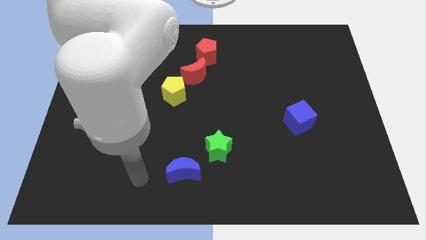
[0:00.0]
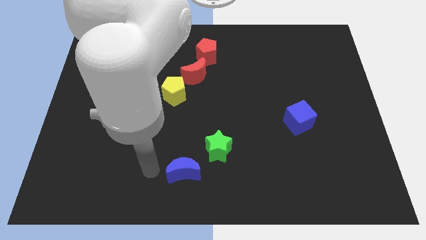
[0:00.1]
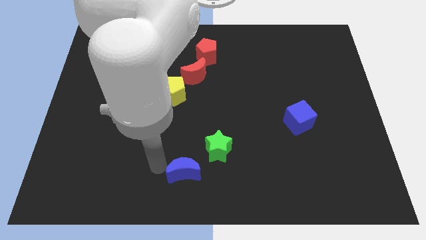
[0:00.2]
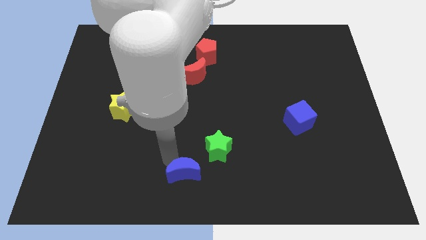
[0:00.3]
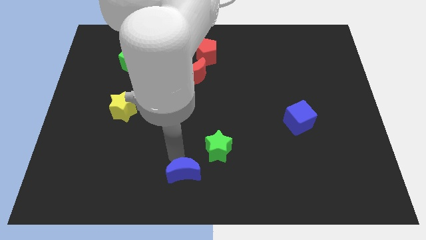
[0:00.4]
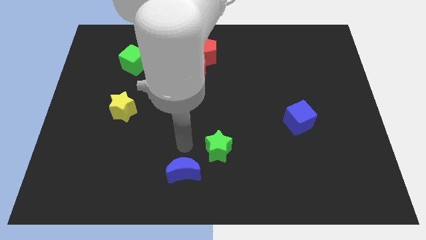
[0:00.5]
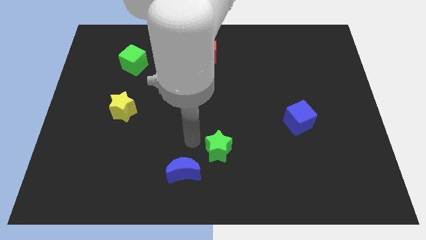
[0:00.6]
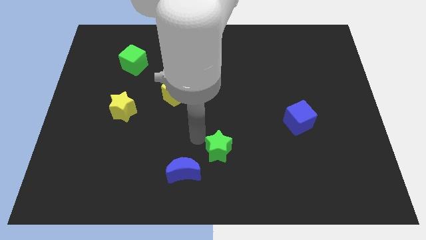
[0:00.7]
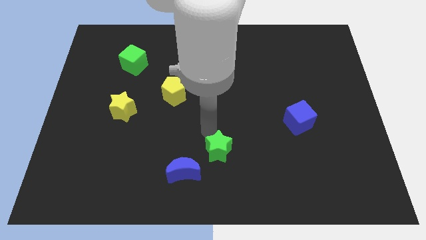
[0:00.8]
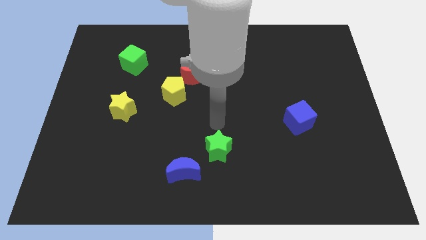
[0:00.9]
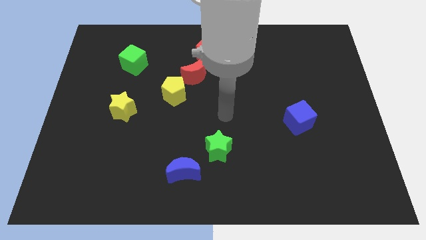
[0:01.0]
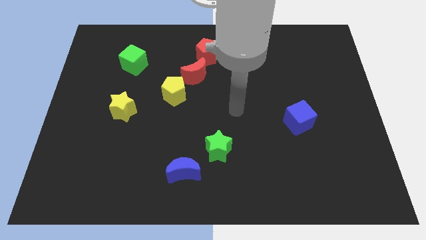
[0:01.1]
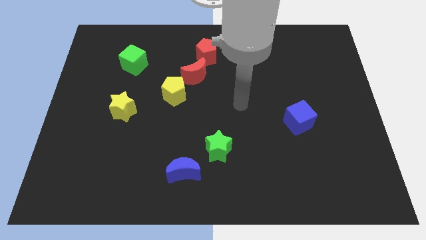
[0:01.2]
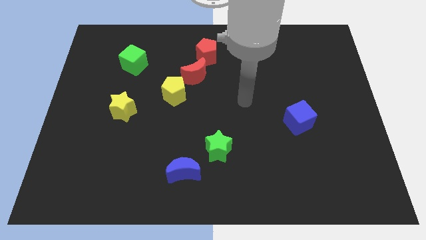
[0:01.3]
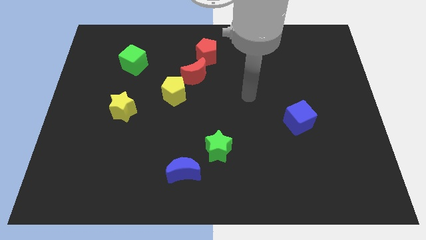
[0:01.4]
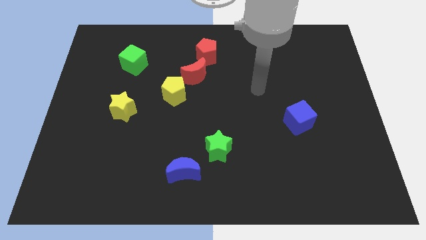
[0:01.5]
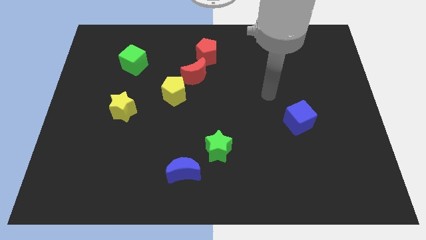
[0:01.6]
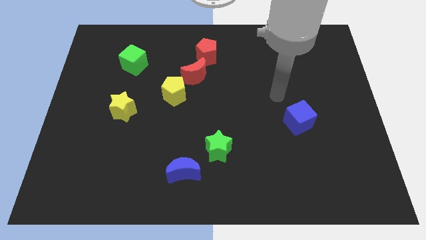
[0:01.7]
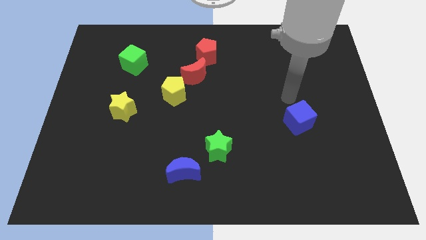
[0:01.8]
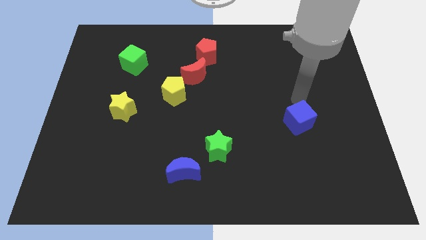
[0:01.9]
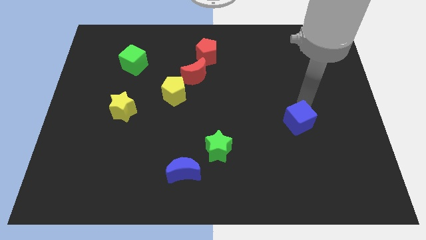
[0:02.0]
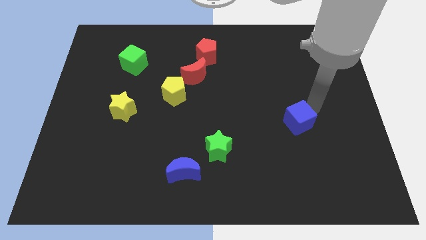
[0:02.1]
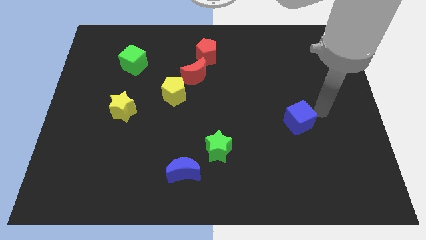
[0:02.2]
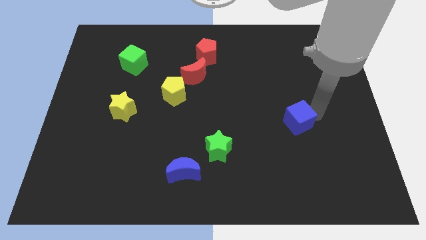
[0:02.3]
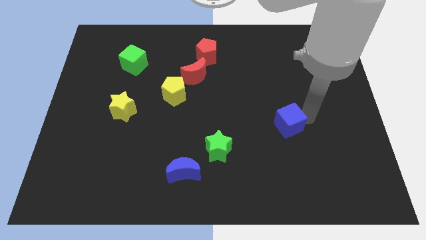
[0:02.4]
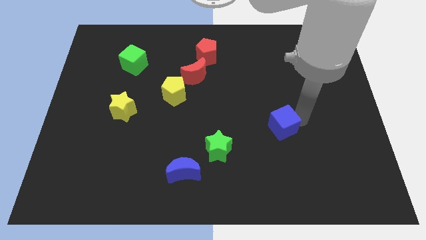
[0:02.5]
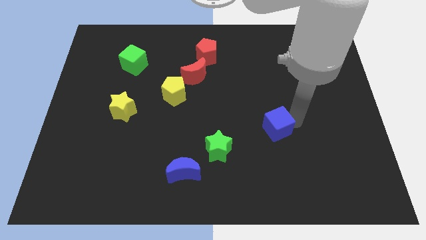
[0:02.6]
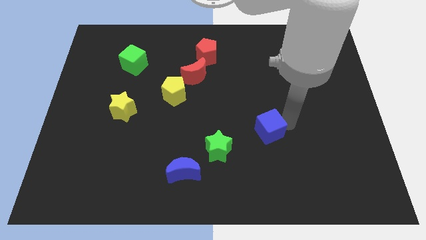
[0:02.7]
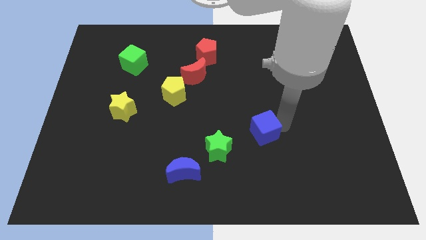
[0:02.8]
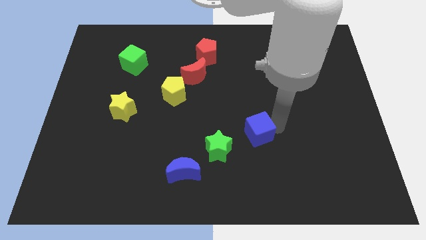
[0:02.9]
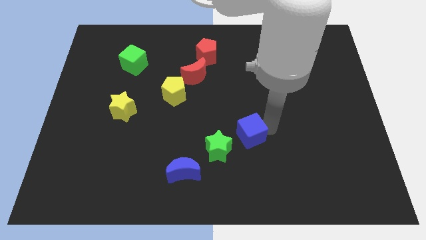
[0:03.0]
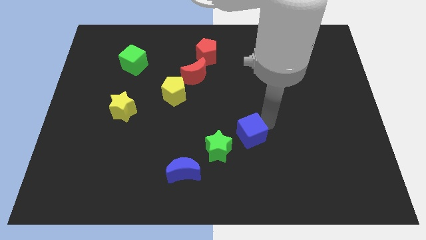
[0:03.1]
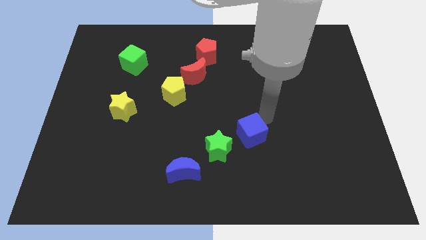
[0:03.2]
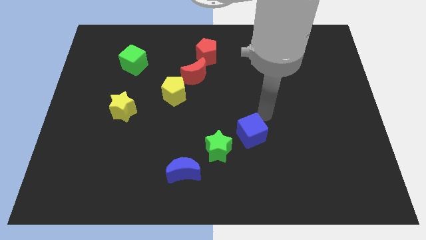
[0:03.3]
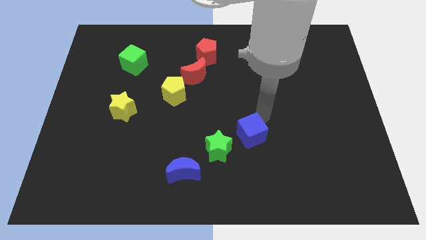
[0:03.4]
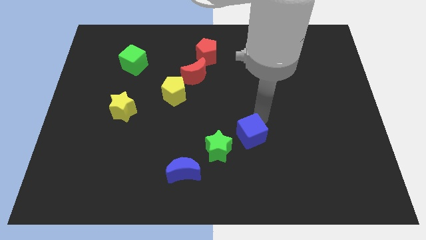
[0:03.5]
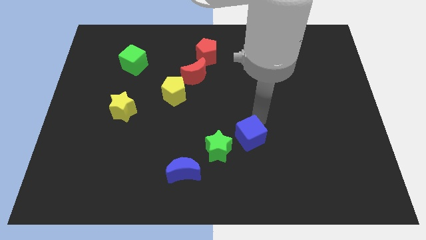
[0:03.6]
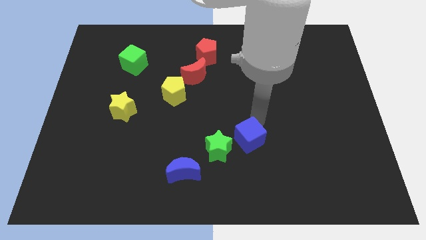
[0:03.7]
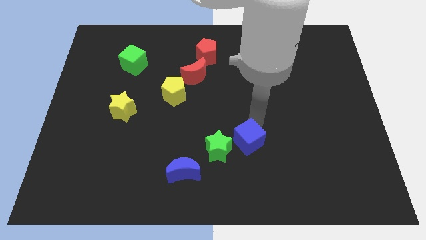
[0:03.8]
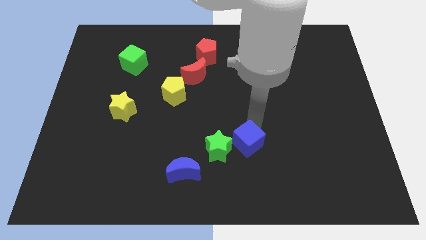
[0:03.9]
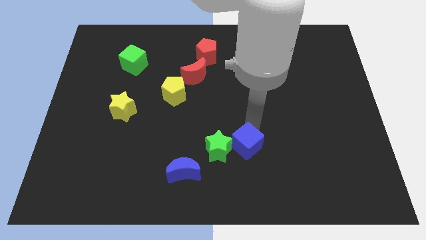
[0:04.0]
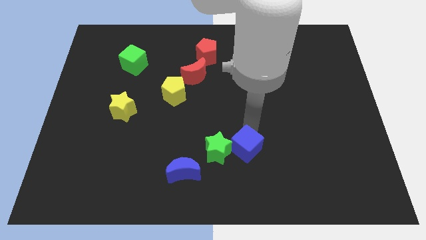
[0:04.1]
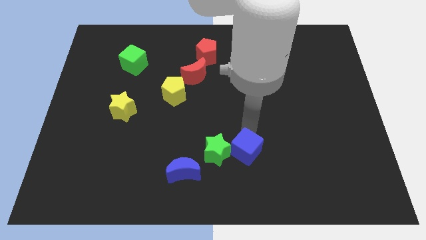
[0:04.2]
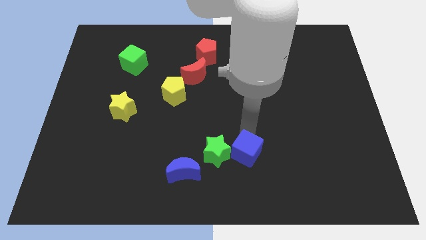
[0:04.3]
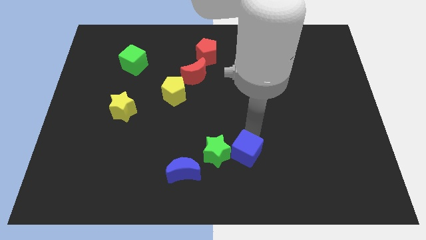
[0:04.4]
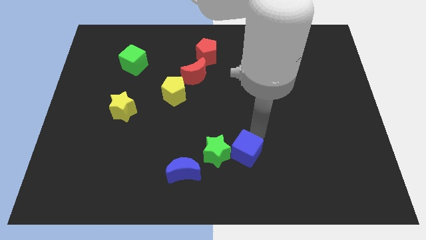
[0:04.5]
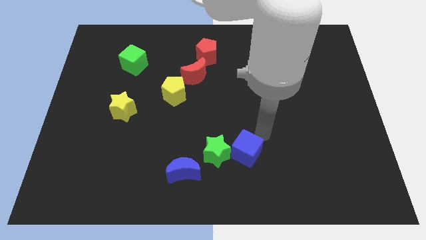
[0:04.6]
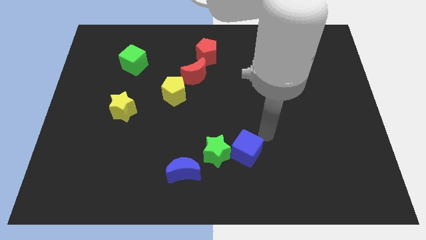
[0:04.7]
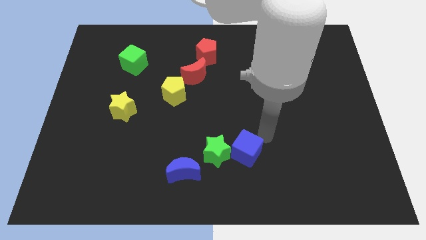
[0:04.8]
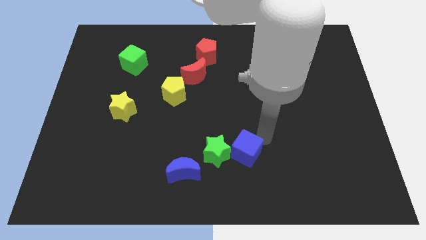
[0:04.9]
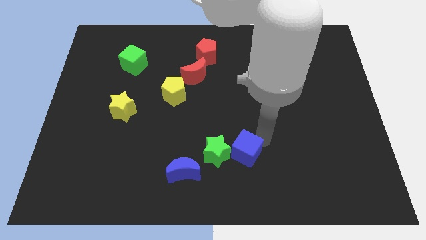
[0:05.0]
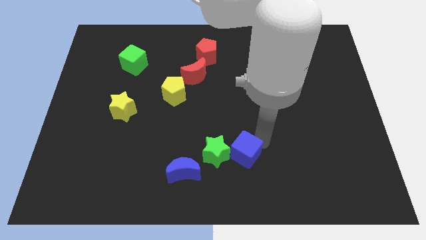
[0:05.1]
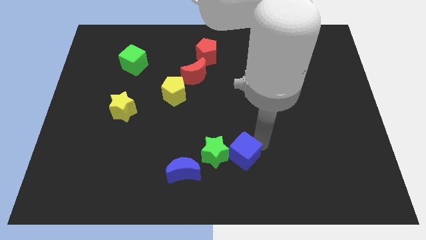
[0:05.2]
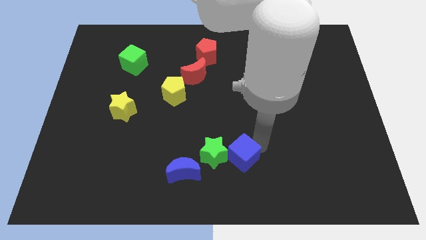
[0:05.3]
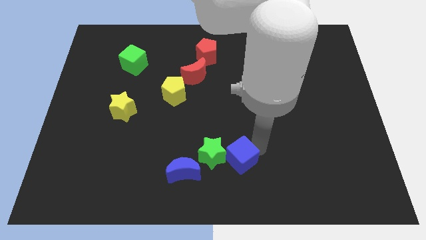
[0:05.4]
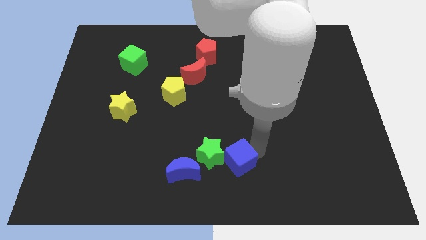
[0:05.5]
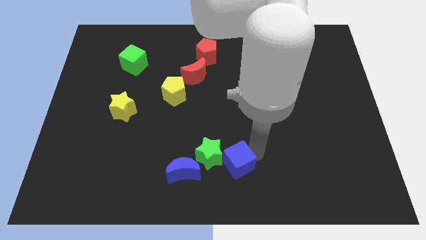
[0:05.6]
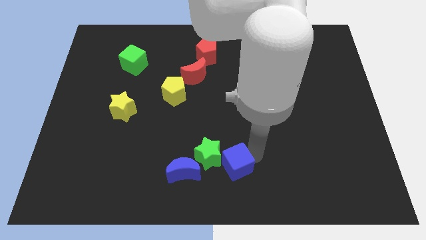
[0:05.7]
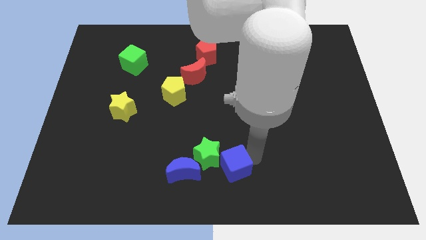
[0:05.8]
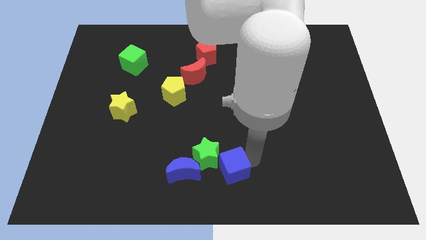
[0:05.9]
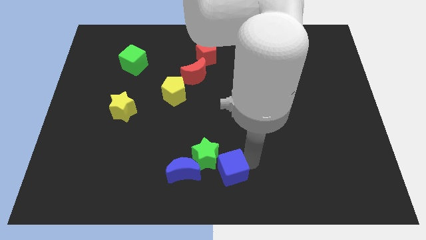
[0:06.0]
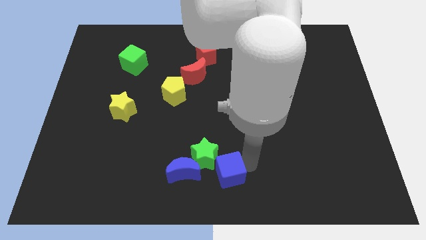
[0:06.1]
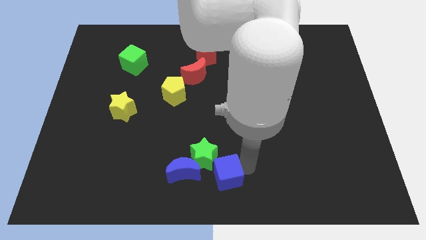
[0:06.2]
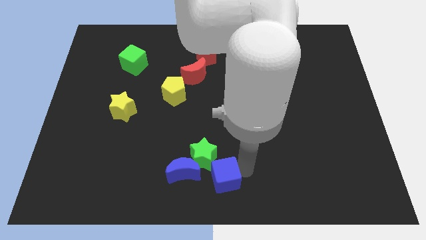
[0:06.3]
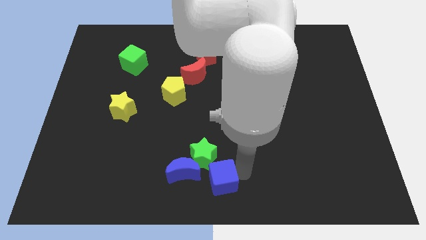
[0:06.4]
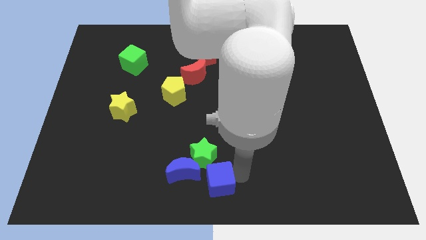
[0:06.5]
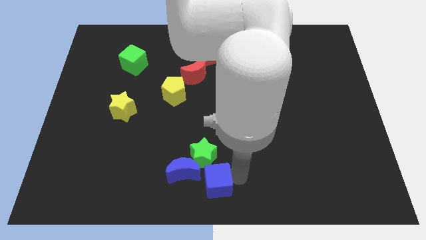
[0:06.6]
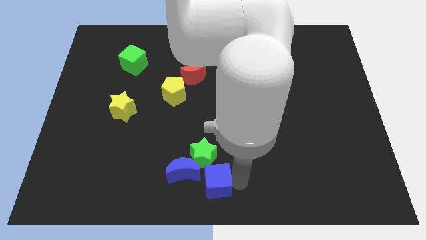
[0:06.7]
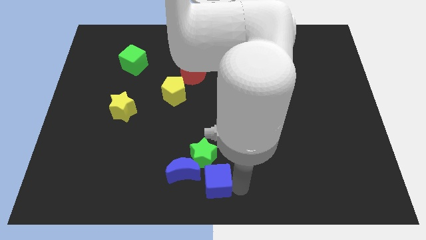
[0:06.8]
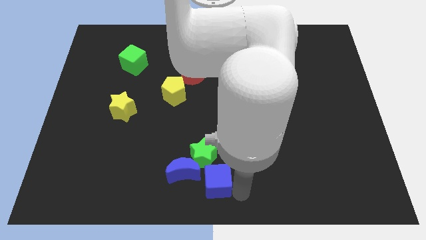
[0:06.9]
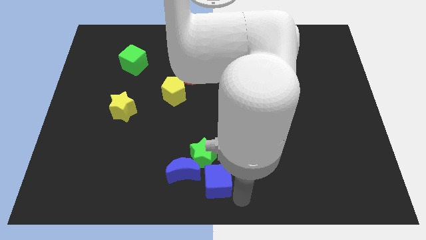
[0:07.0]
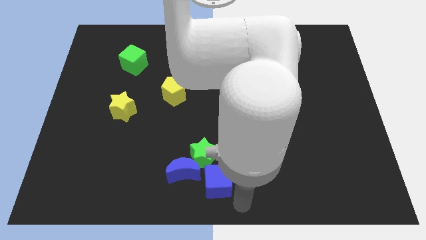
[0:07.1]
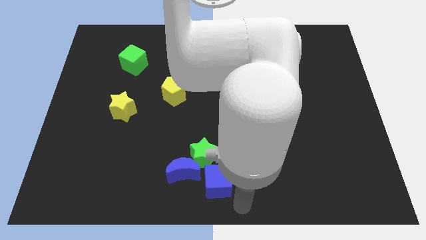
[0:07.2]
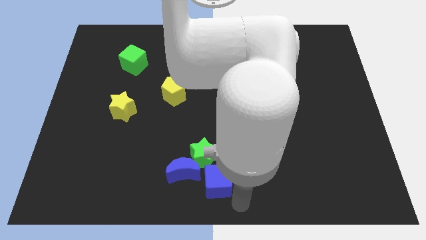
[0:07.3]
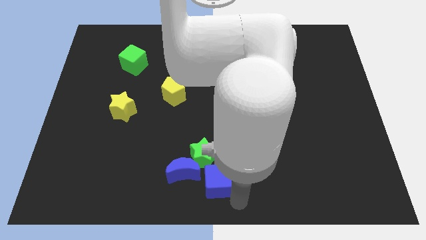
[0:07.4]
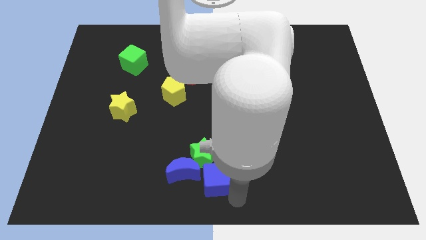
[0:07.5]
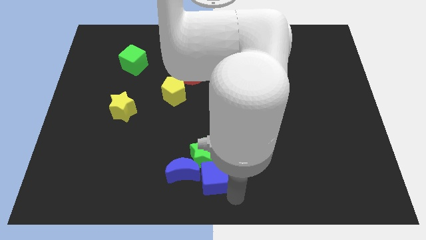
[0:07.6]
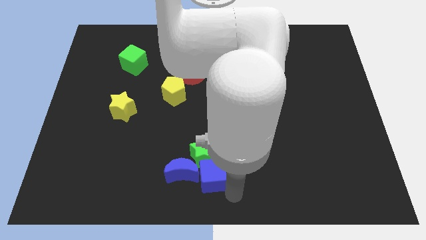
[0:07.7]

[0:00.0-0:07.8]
push the blue cube to the blue moon
